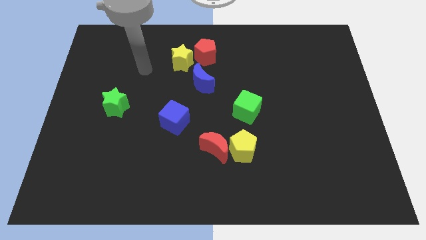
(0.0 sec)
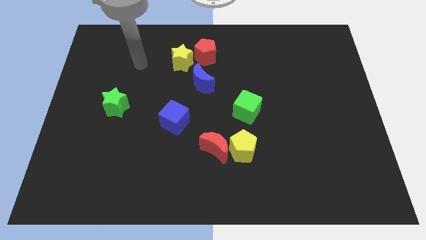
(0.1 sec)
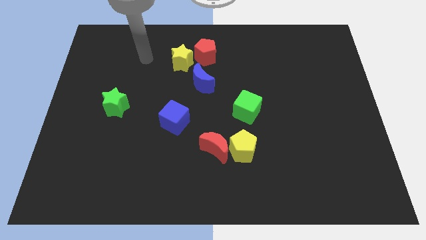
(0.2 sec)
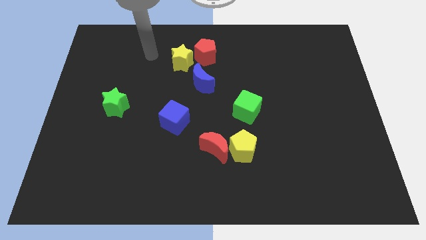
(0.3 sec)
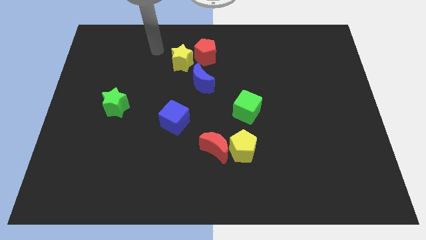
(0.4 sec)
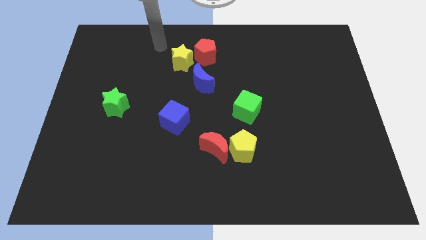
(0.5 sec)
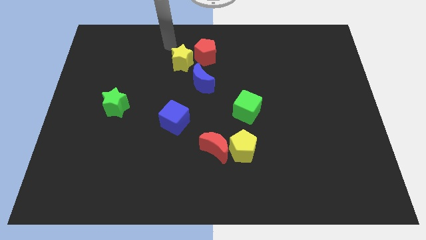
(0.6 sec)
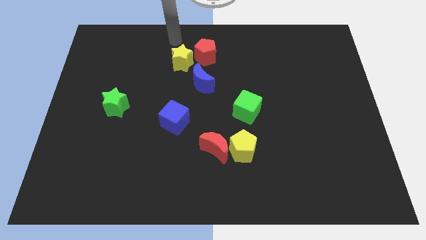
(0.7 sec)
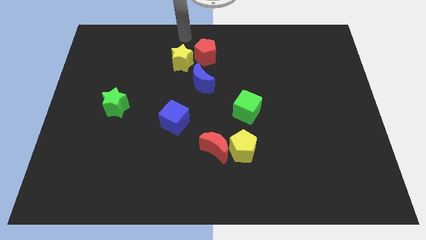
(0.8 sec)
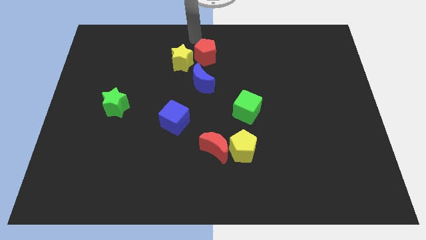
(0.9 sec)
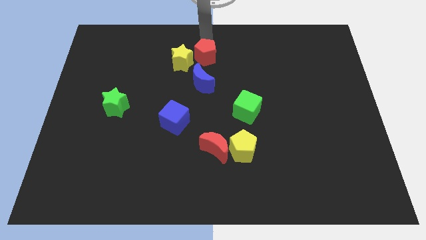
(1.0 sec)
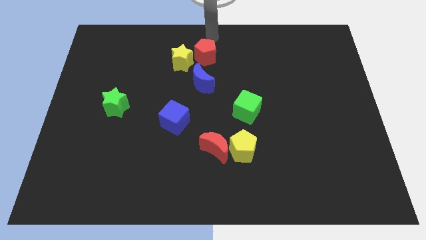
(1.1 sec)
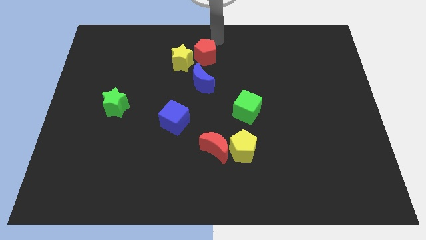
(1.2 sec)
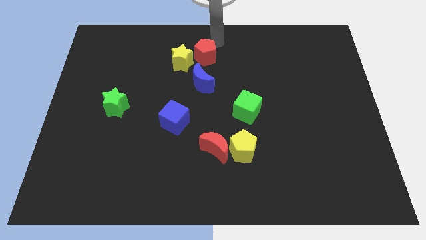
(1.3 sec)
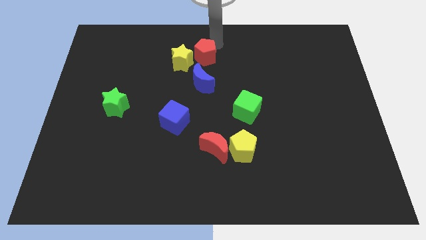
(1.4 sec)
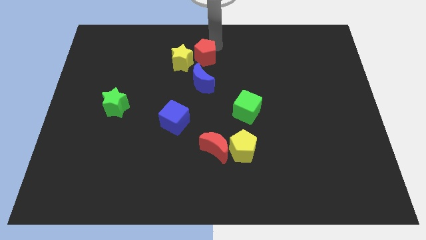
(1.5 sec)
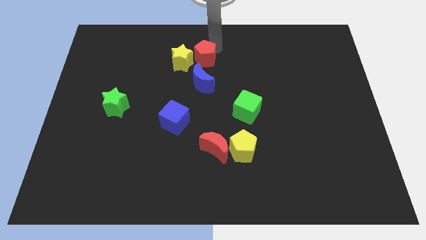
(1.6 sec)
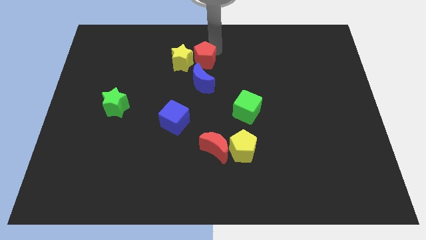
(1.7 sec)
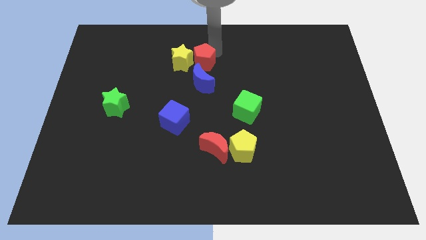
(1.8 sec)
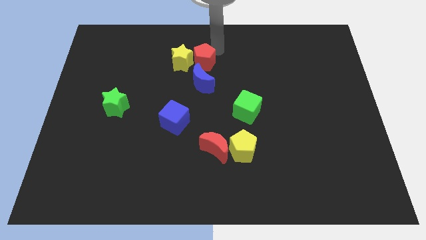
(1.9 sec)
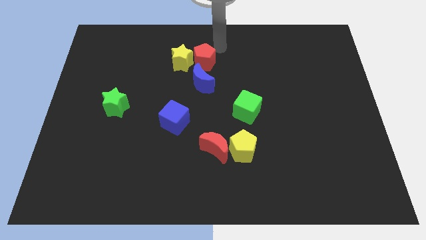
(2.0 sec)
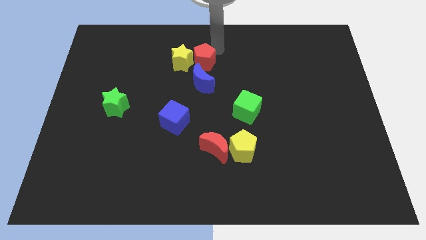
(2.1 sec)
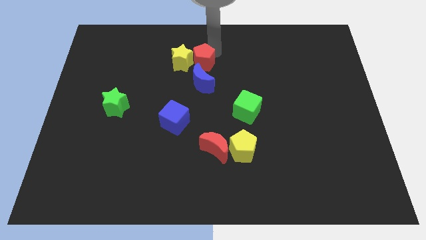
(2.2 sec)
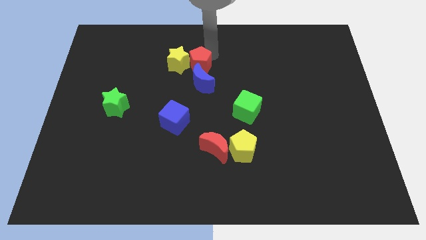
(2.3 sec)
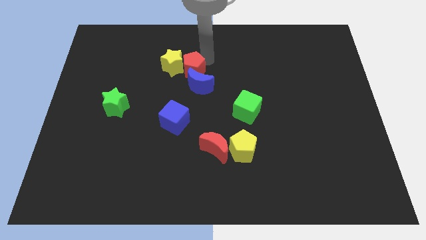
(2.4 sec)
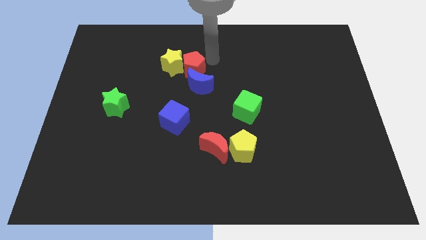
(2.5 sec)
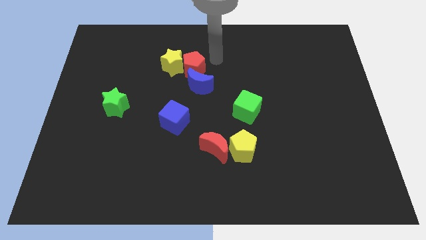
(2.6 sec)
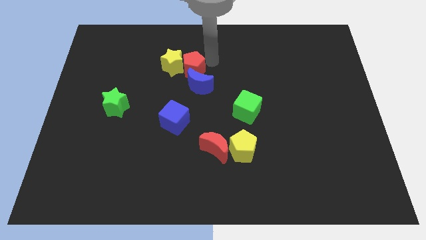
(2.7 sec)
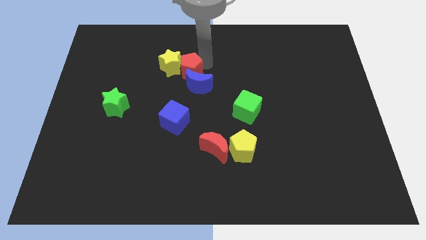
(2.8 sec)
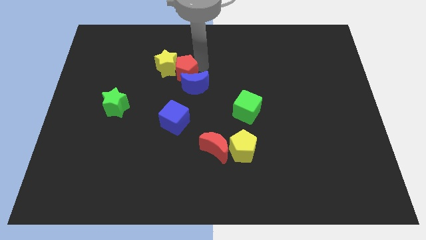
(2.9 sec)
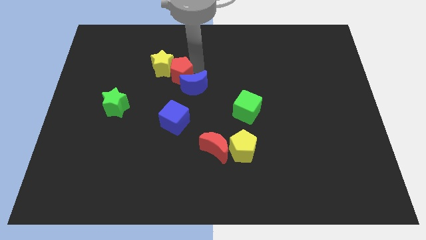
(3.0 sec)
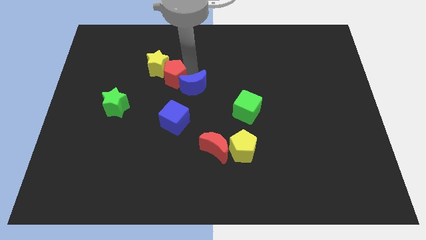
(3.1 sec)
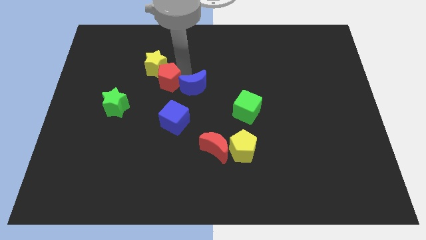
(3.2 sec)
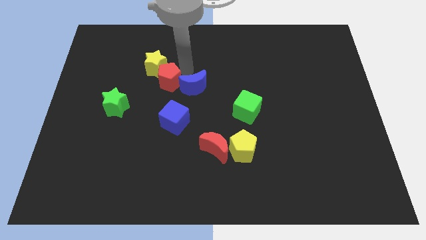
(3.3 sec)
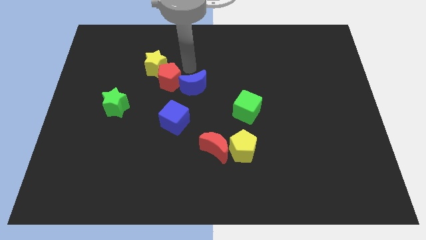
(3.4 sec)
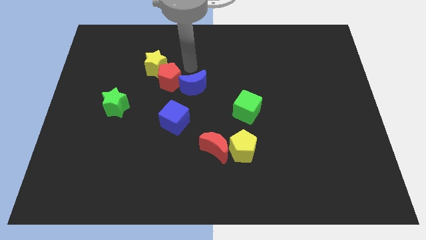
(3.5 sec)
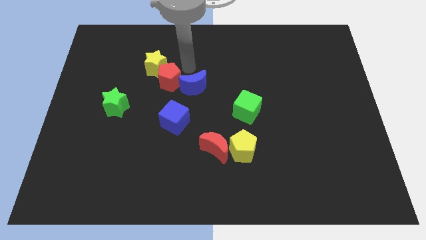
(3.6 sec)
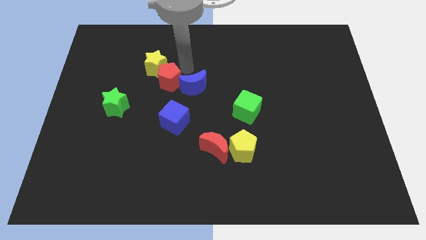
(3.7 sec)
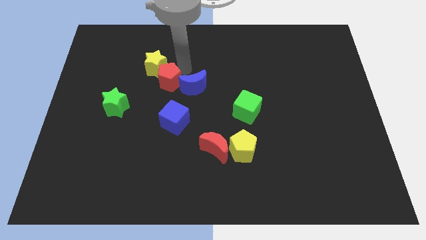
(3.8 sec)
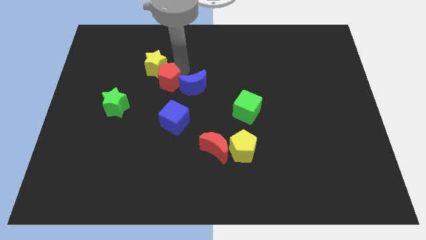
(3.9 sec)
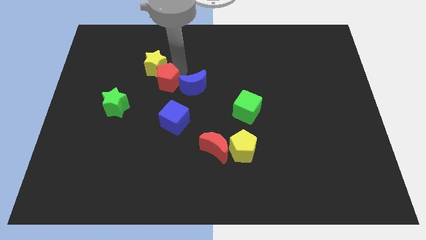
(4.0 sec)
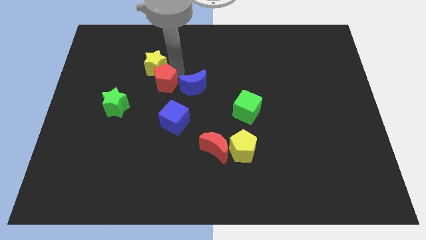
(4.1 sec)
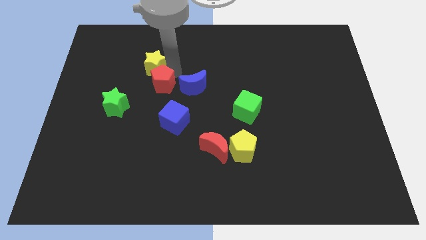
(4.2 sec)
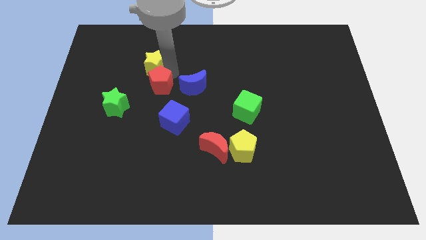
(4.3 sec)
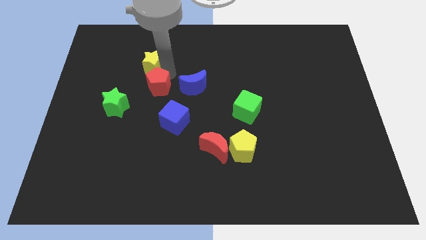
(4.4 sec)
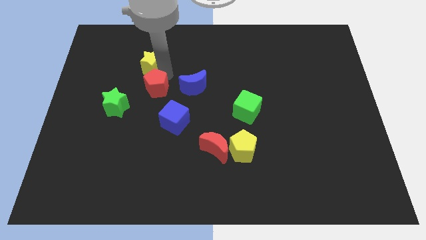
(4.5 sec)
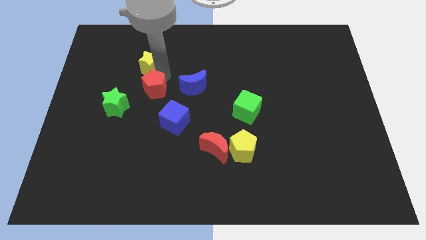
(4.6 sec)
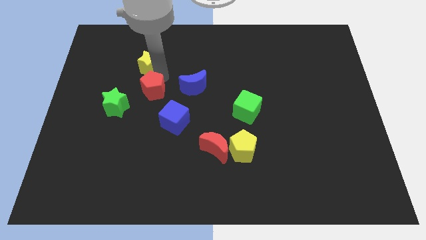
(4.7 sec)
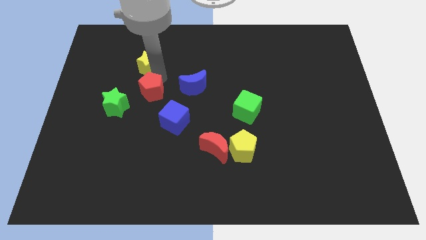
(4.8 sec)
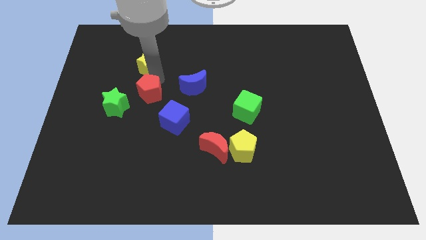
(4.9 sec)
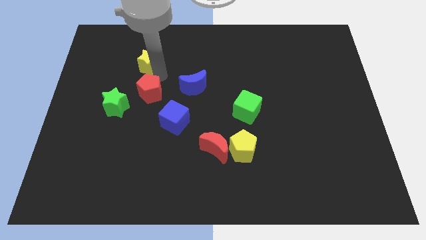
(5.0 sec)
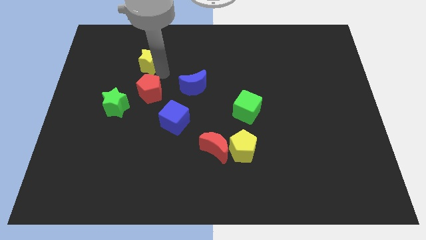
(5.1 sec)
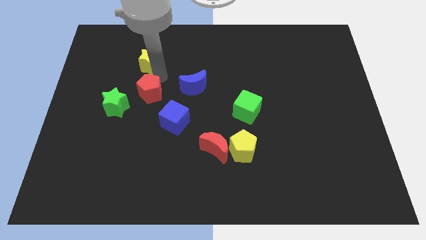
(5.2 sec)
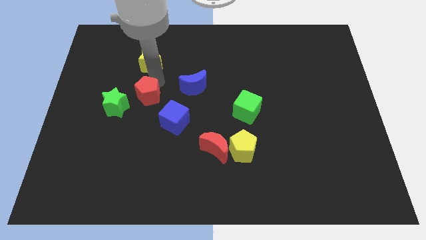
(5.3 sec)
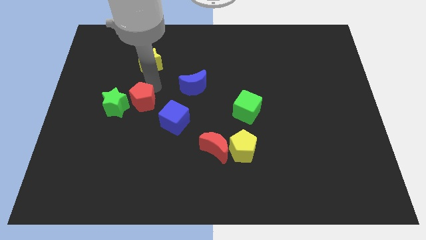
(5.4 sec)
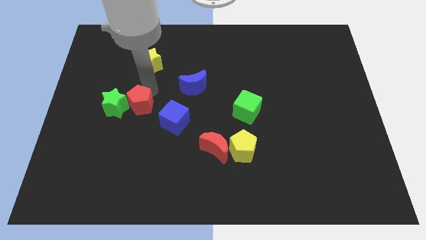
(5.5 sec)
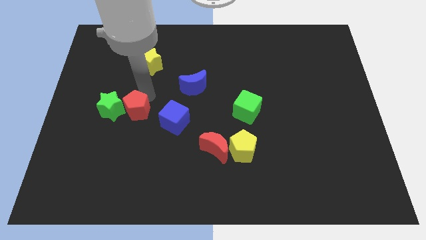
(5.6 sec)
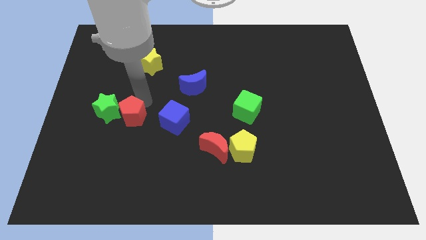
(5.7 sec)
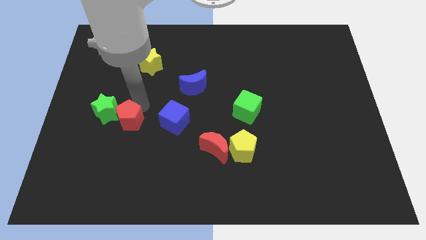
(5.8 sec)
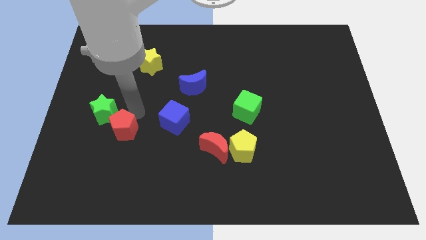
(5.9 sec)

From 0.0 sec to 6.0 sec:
slide the red pentagon to the bottom side of the green star

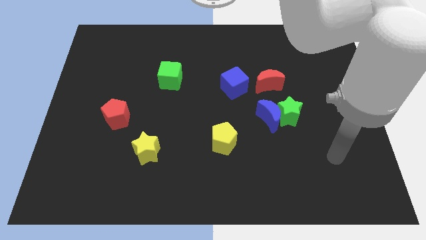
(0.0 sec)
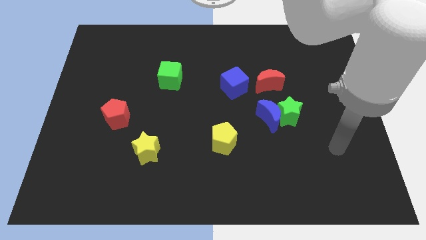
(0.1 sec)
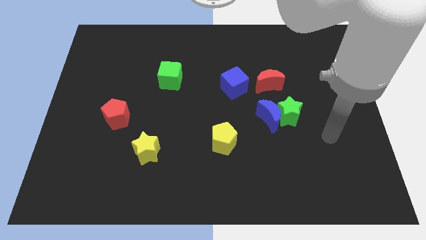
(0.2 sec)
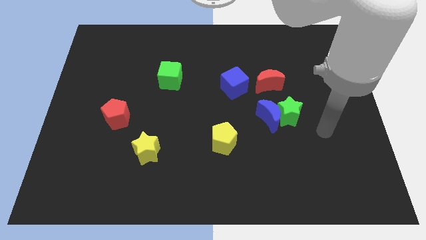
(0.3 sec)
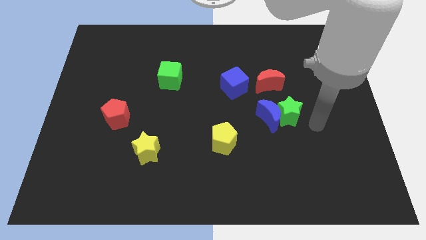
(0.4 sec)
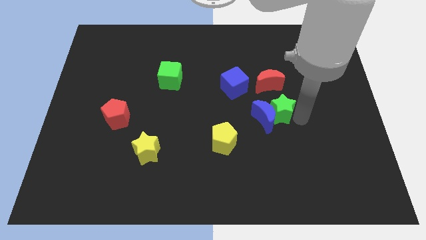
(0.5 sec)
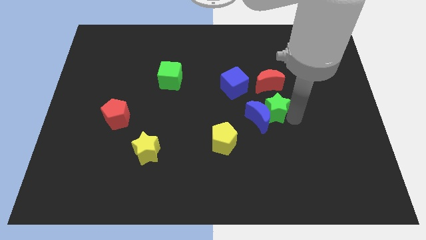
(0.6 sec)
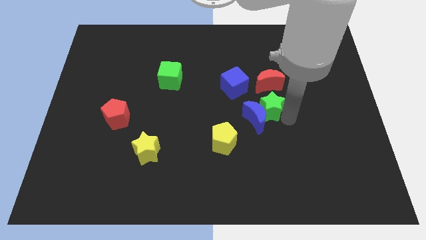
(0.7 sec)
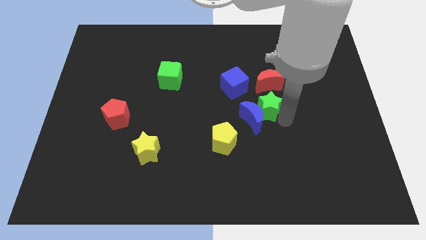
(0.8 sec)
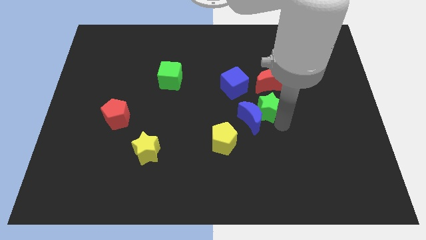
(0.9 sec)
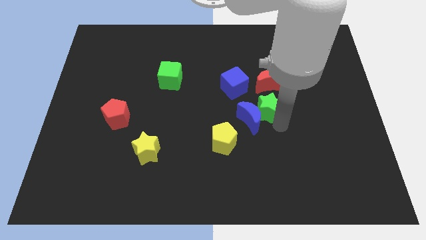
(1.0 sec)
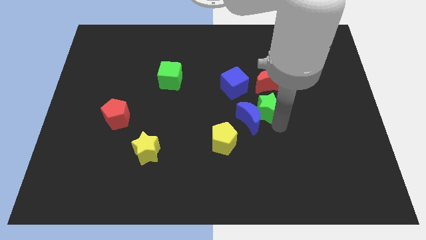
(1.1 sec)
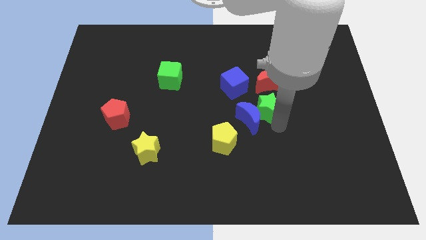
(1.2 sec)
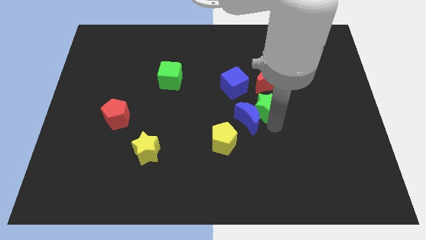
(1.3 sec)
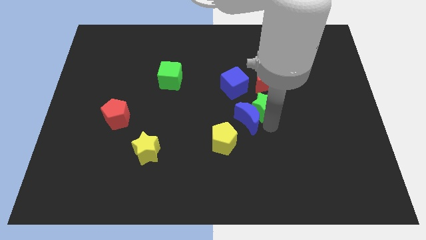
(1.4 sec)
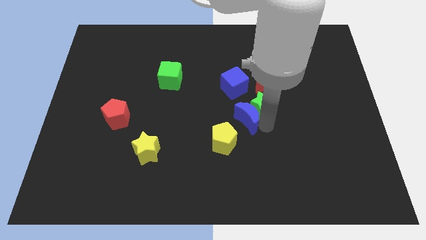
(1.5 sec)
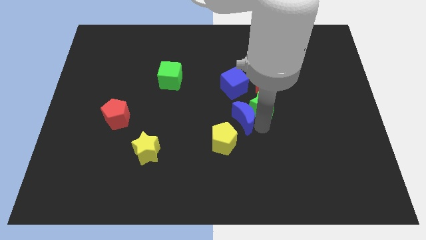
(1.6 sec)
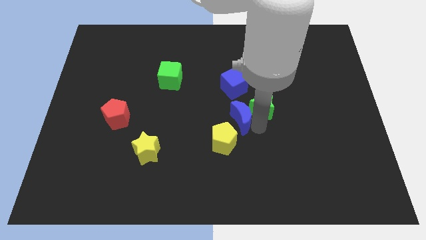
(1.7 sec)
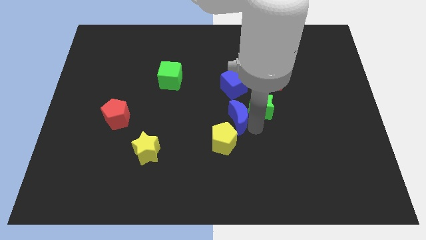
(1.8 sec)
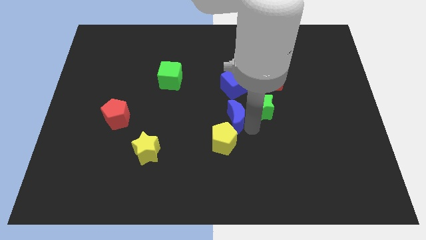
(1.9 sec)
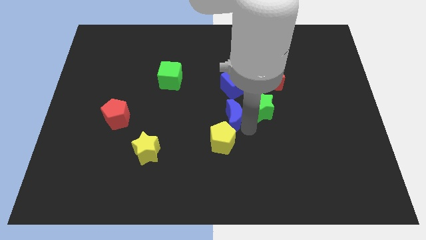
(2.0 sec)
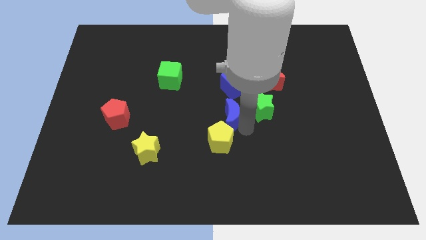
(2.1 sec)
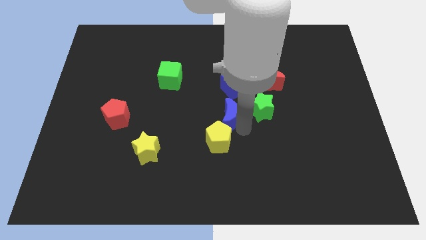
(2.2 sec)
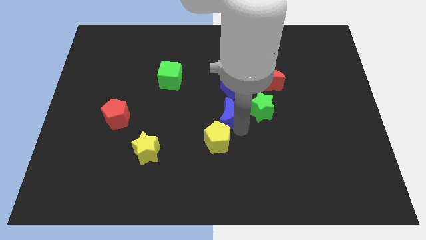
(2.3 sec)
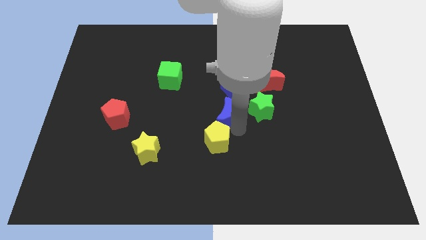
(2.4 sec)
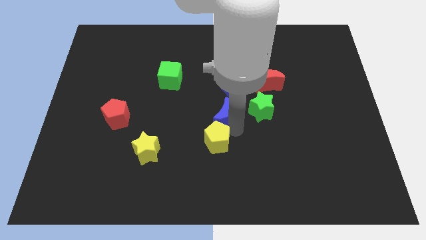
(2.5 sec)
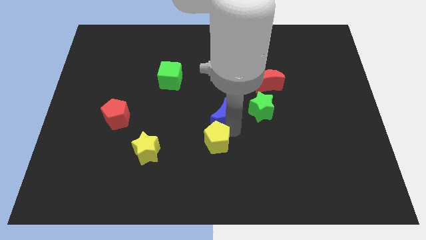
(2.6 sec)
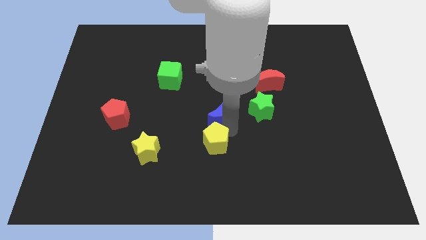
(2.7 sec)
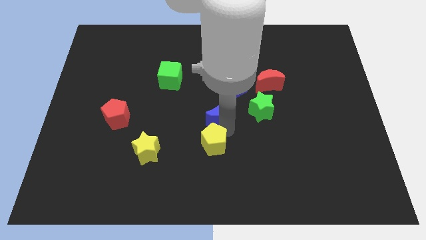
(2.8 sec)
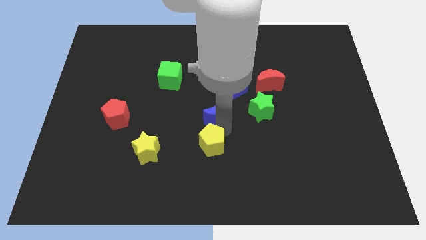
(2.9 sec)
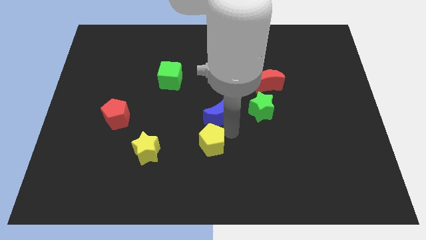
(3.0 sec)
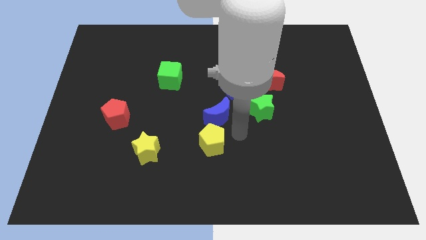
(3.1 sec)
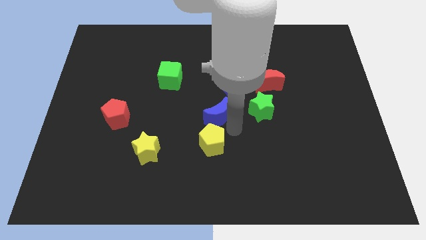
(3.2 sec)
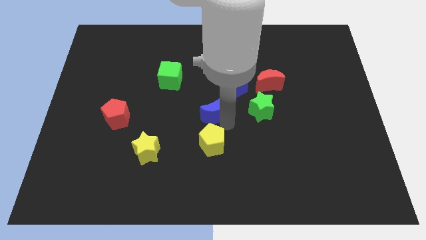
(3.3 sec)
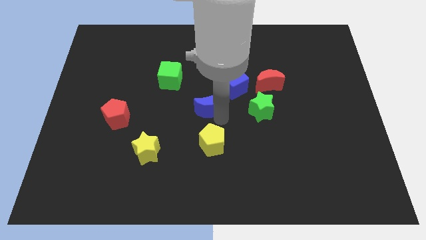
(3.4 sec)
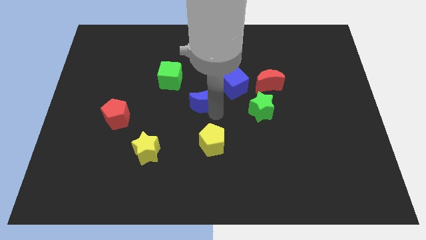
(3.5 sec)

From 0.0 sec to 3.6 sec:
push the blue moon diagonally down and to the right of the green cube
